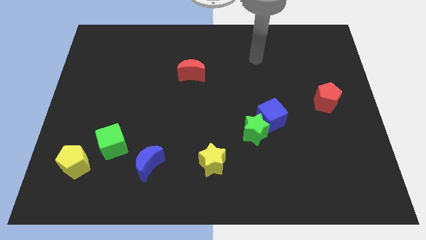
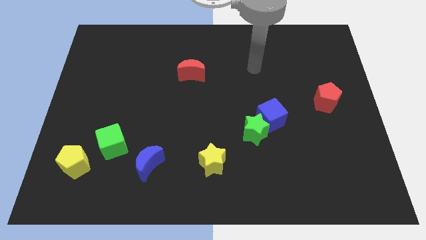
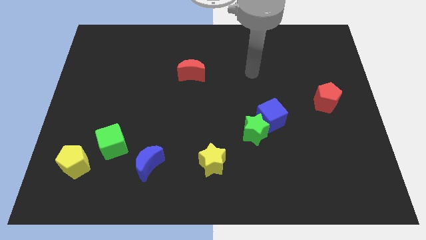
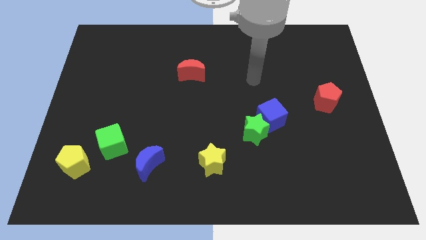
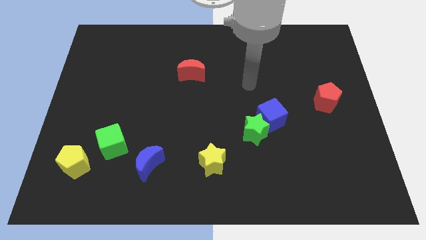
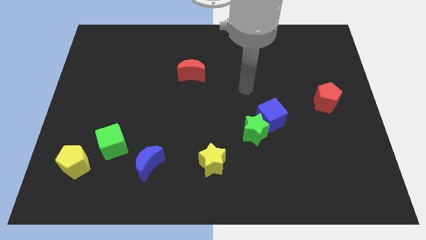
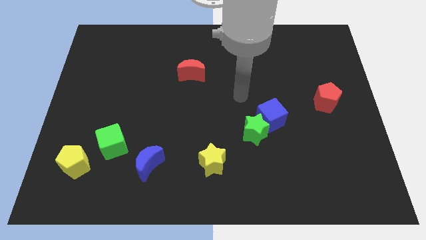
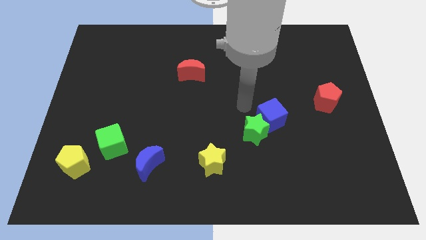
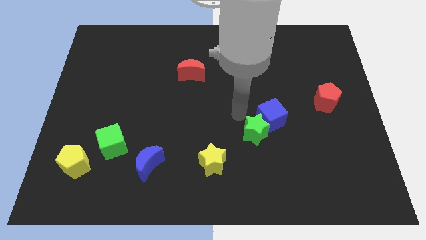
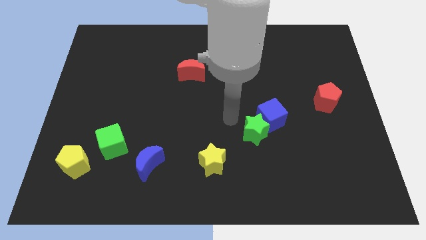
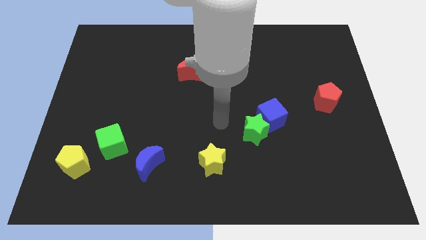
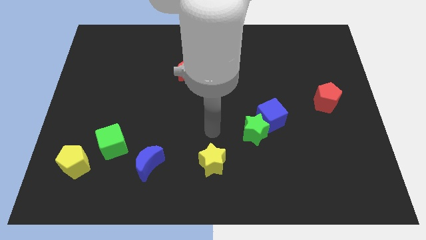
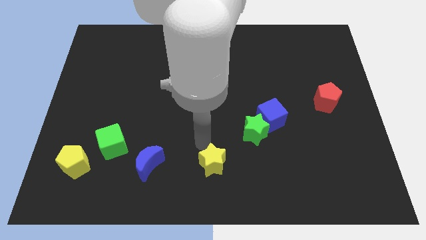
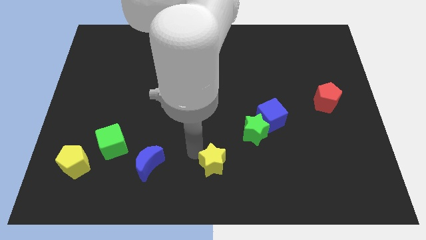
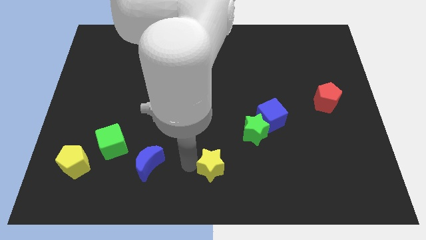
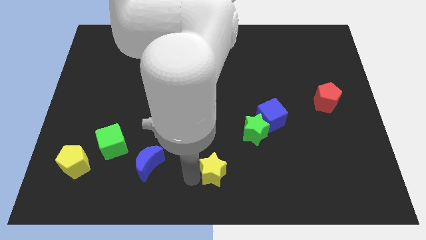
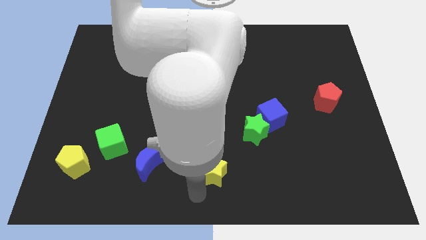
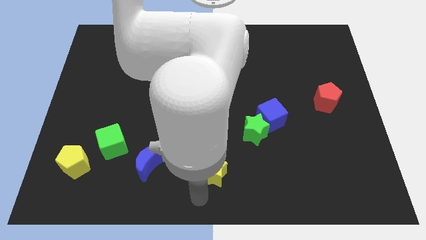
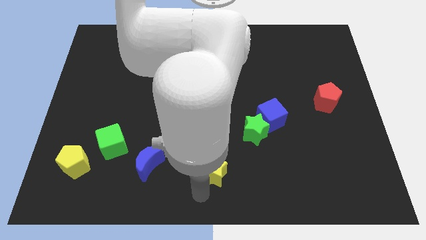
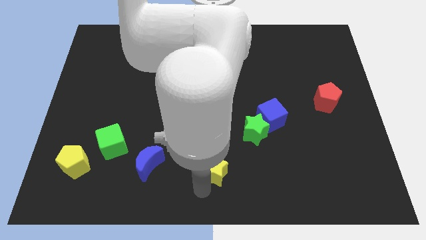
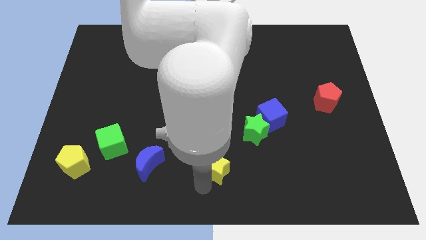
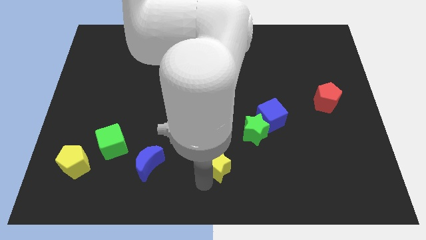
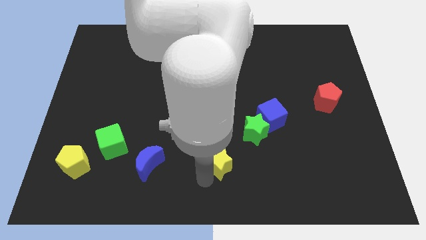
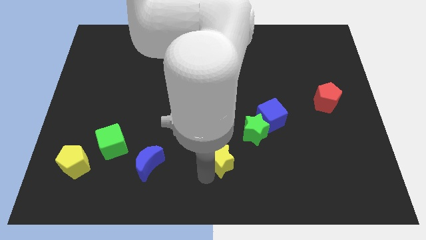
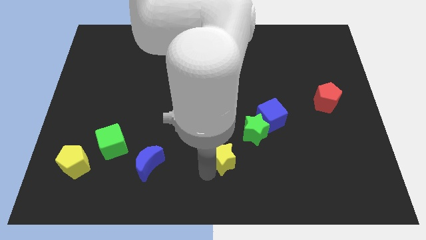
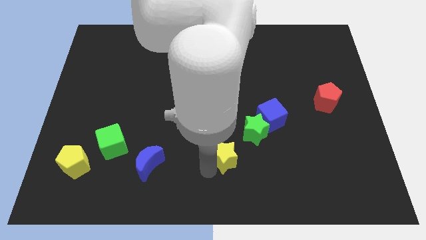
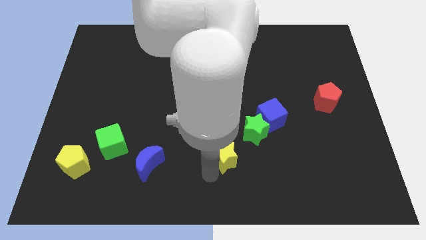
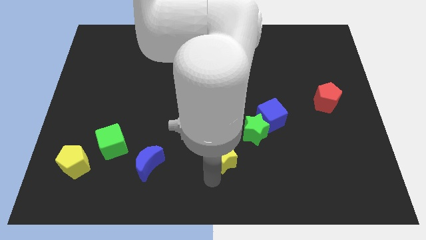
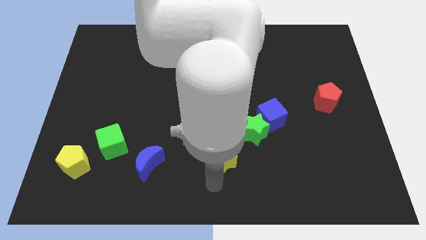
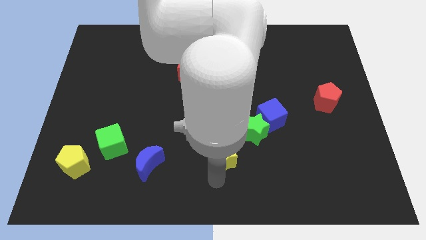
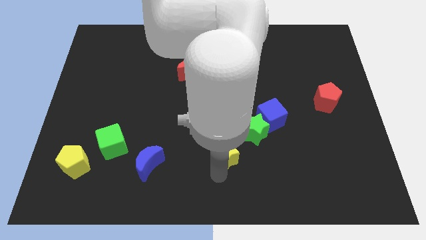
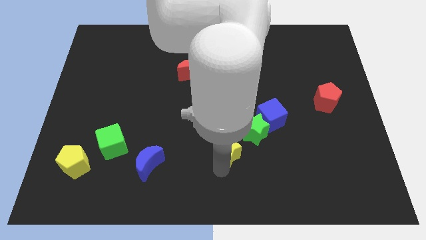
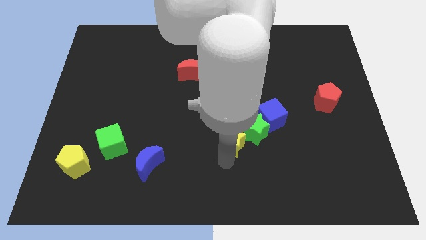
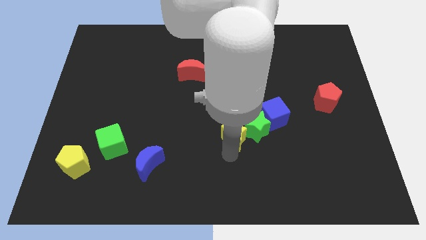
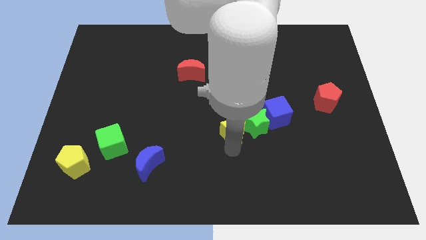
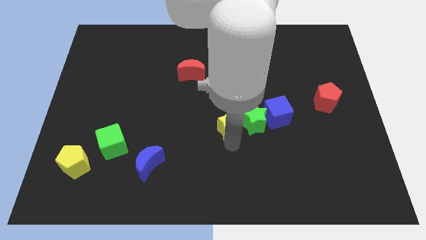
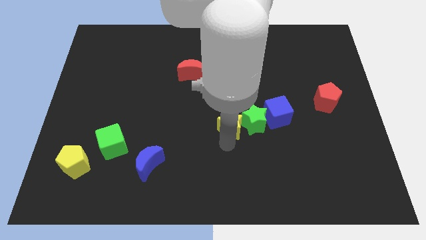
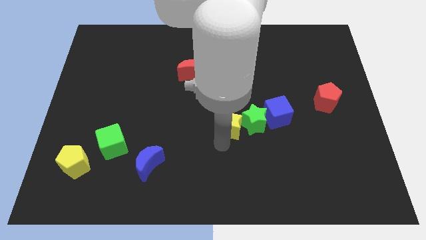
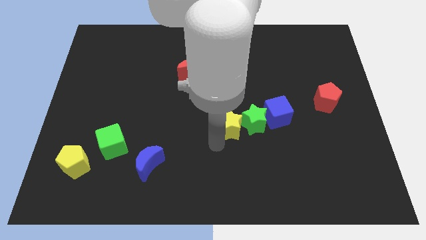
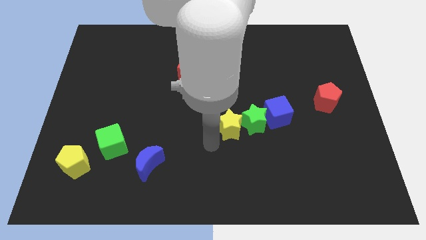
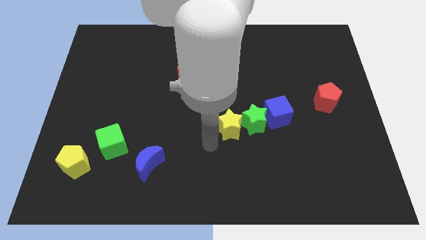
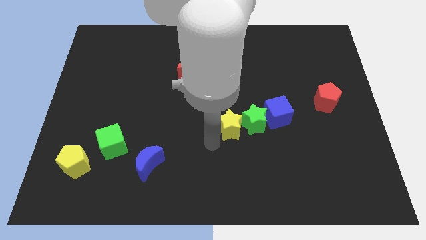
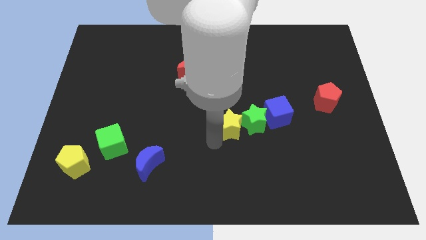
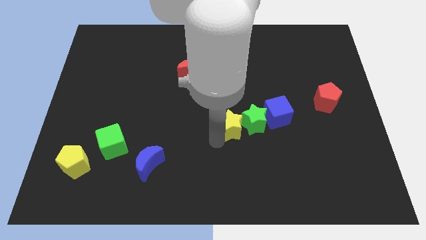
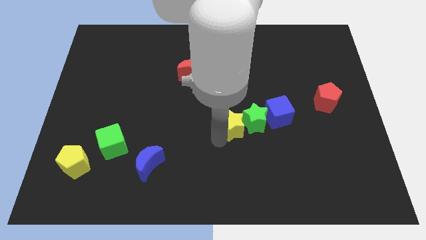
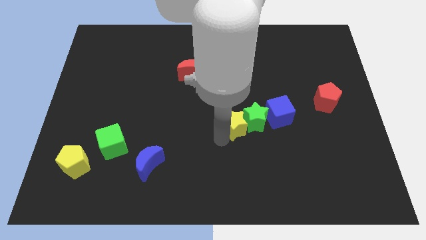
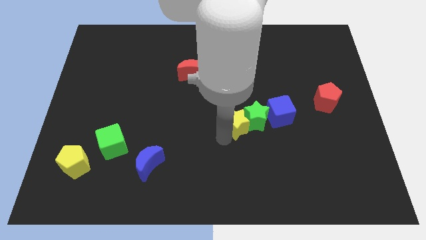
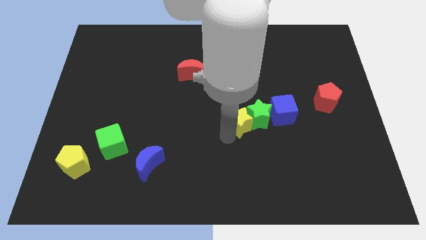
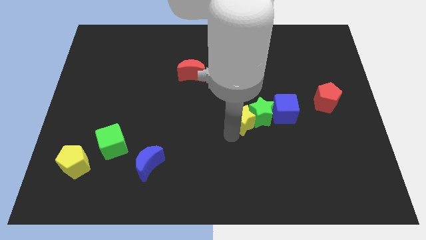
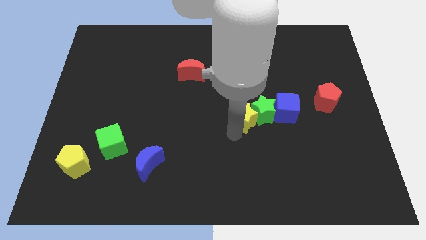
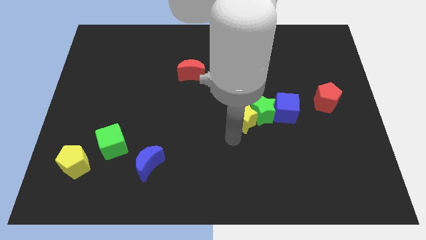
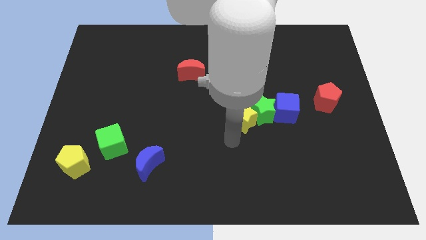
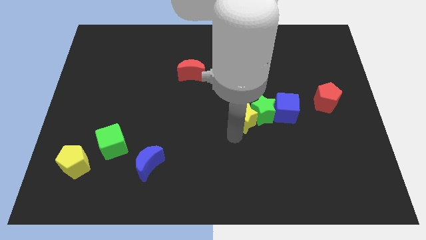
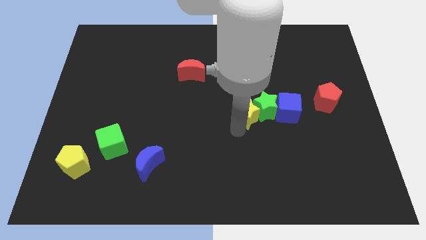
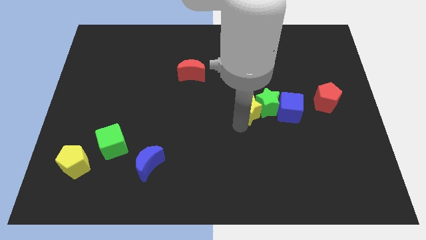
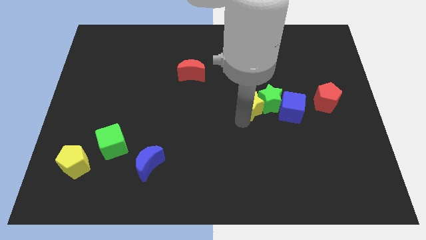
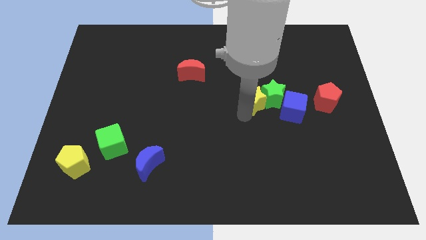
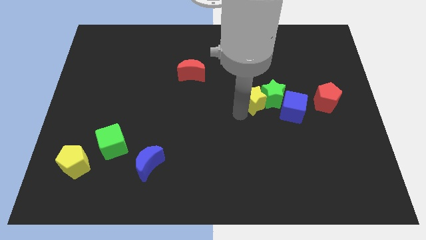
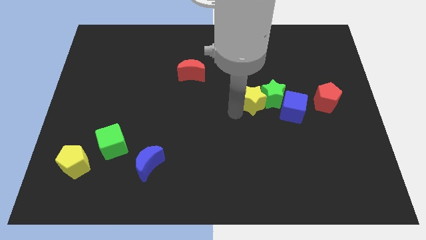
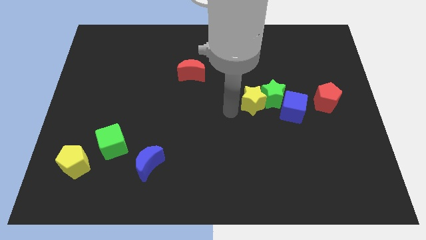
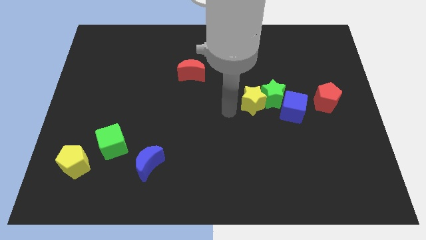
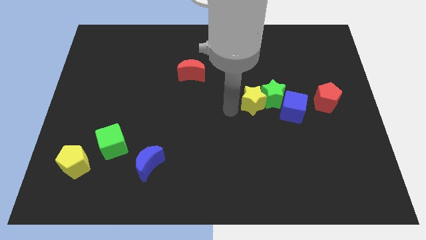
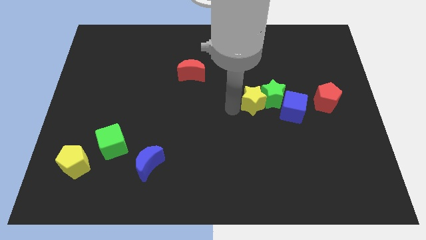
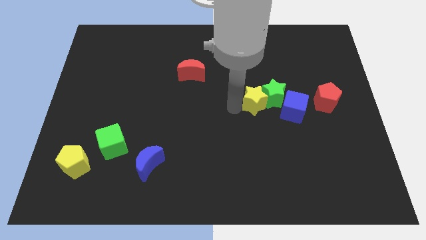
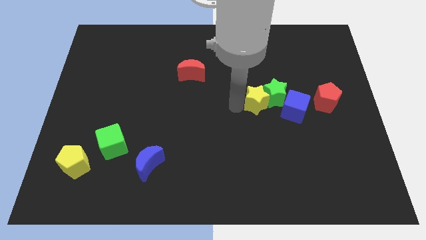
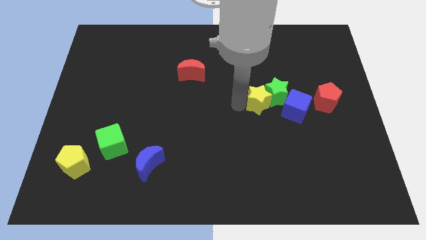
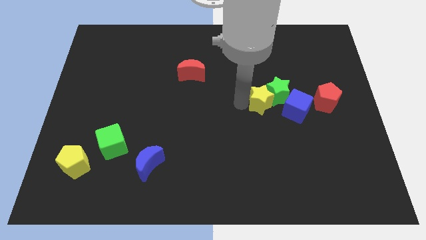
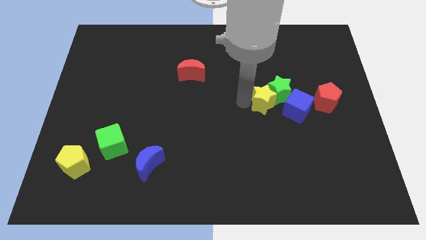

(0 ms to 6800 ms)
move the yellow star upwards and to the right diagonally

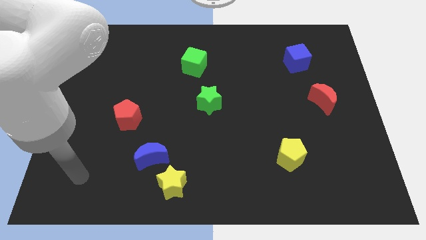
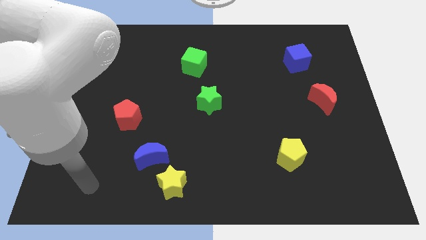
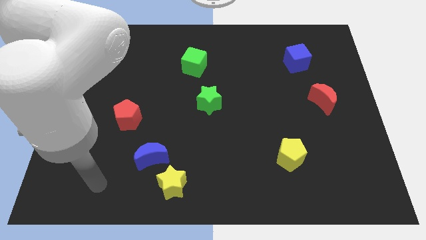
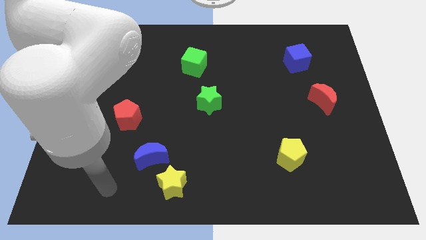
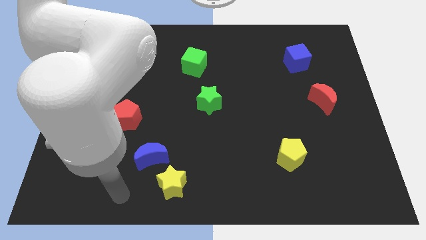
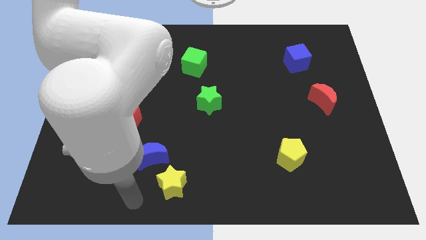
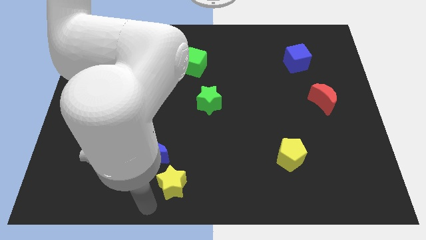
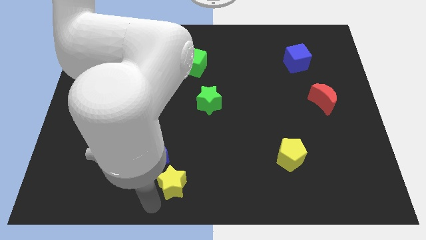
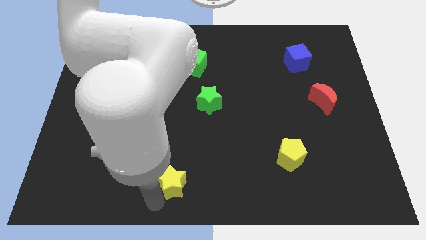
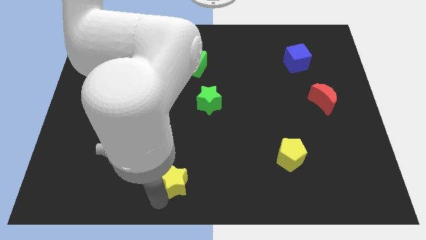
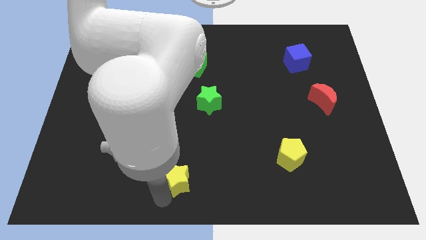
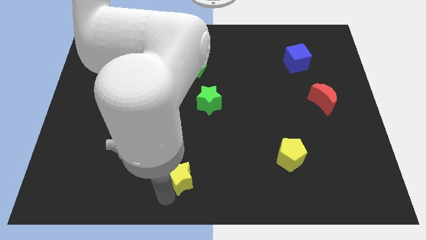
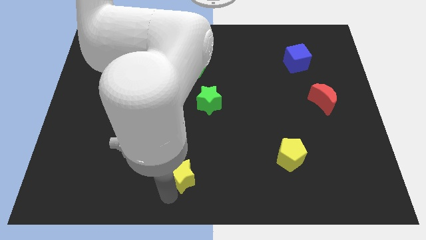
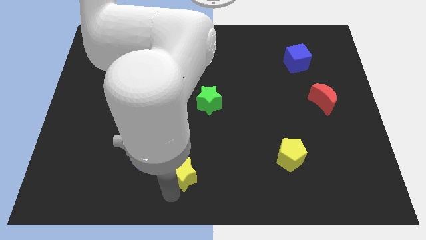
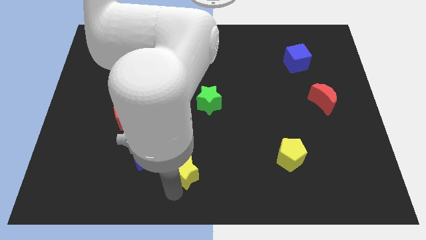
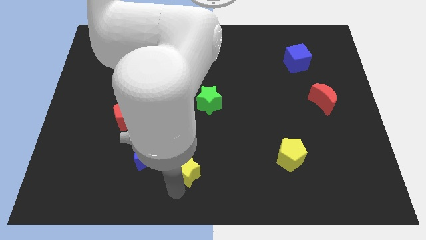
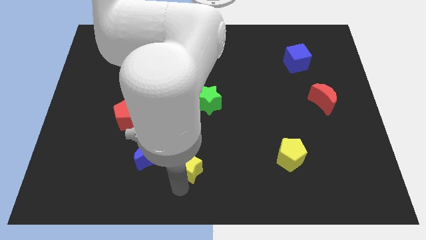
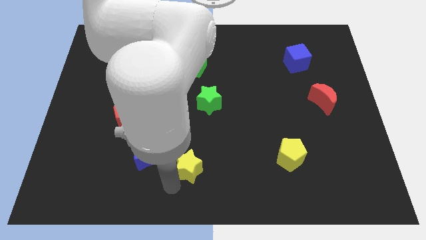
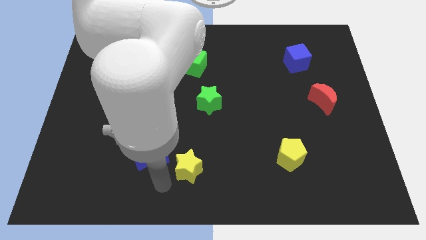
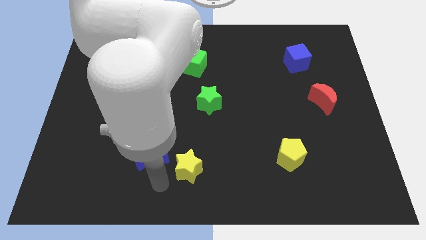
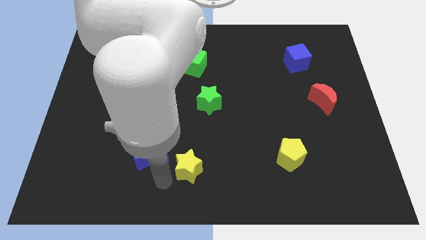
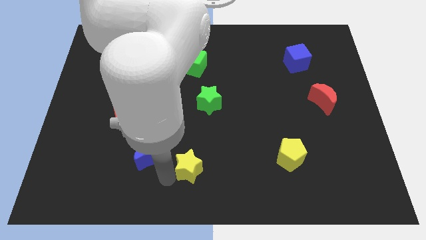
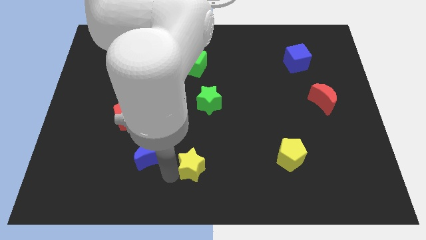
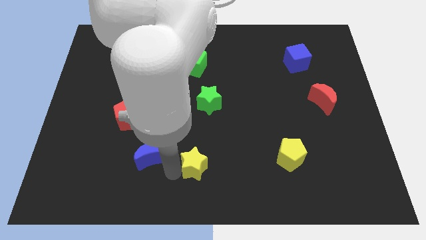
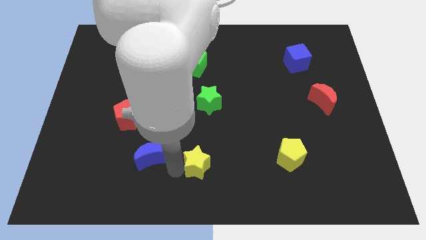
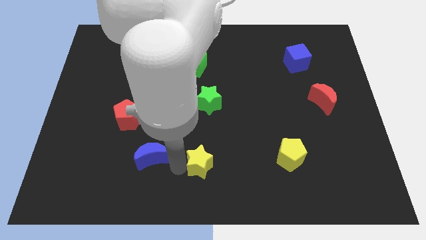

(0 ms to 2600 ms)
slightly push the yellow star up and to the right diagonally
